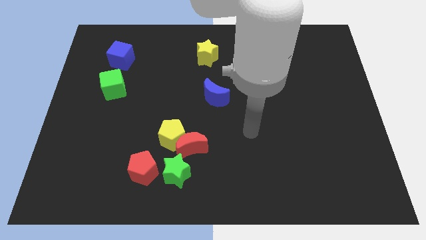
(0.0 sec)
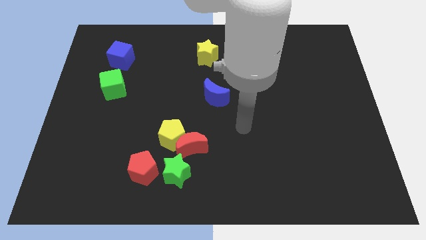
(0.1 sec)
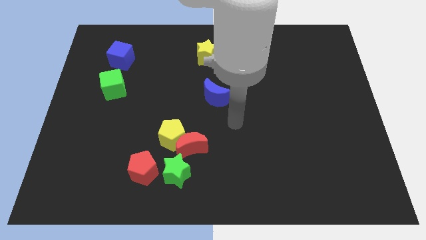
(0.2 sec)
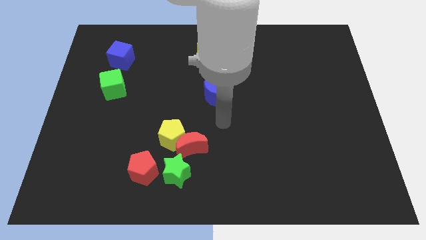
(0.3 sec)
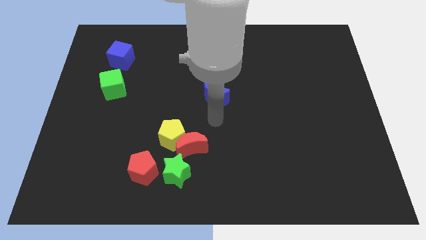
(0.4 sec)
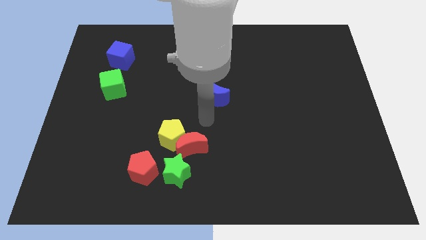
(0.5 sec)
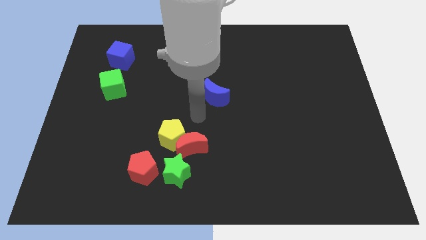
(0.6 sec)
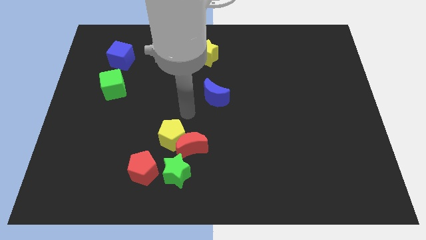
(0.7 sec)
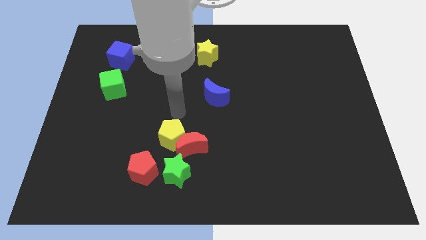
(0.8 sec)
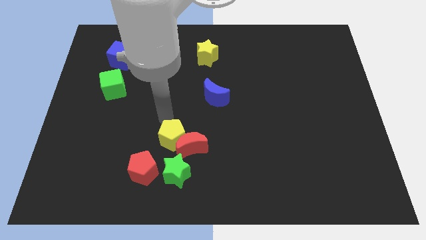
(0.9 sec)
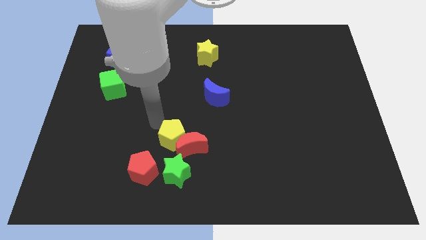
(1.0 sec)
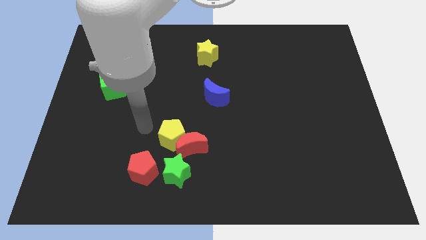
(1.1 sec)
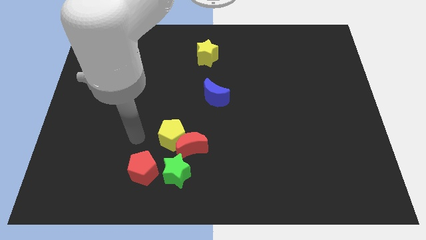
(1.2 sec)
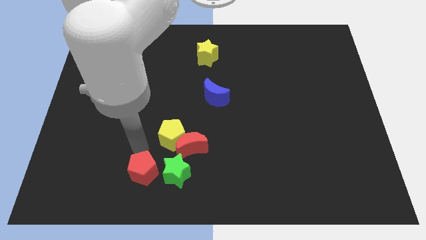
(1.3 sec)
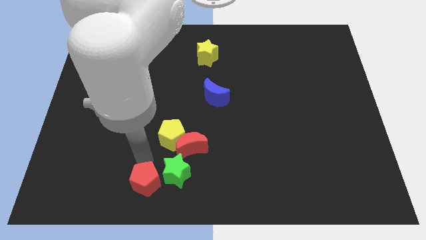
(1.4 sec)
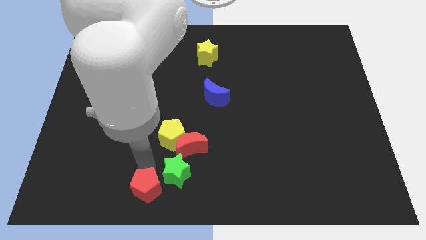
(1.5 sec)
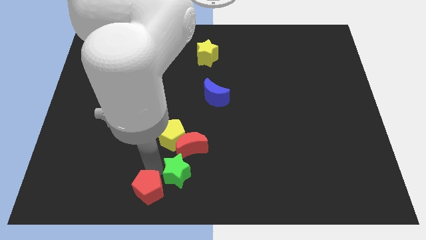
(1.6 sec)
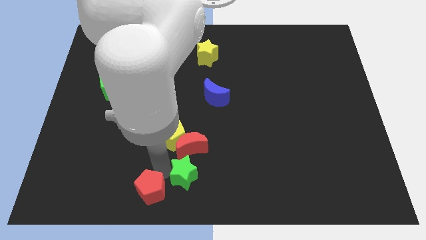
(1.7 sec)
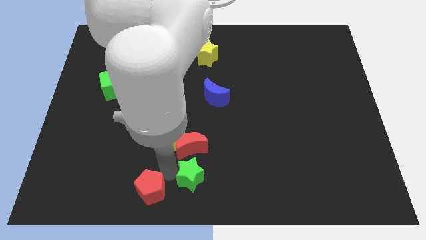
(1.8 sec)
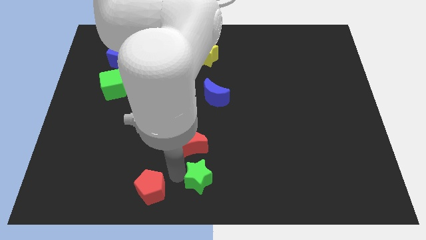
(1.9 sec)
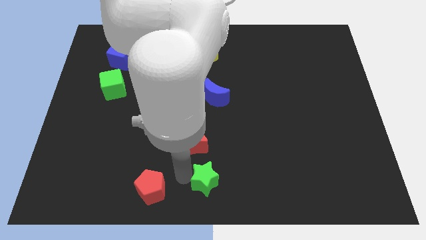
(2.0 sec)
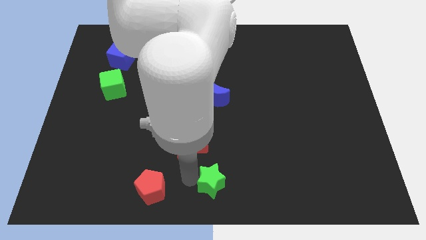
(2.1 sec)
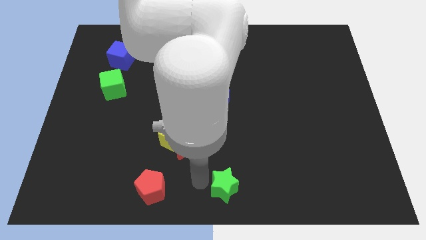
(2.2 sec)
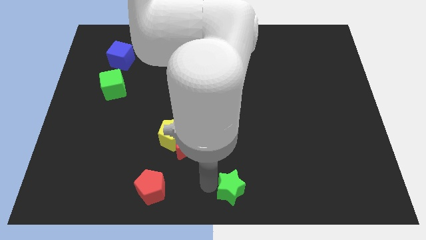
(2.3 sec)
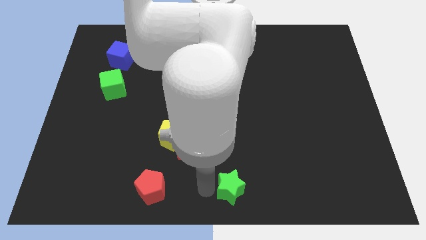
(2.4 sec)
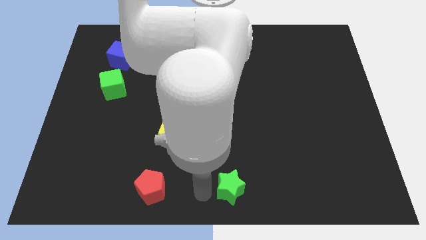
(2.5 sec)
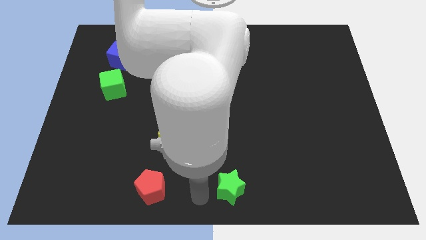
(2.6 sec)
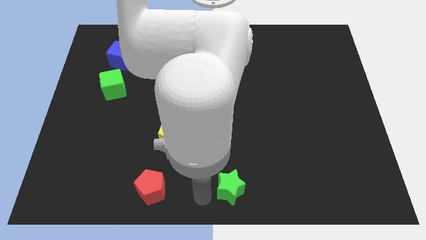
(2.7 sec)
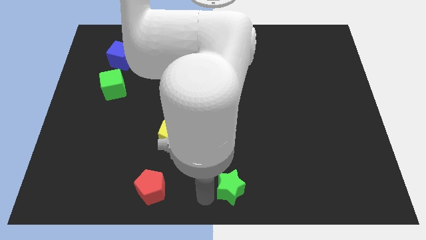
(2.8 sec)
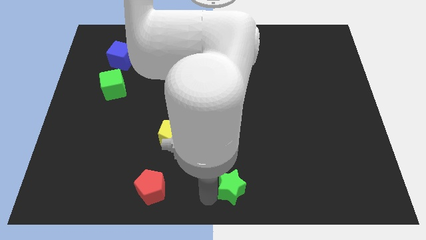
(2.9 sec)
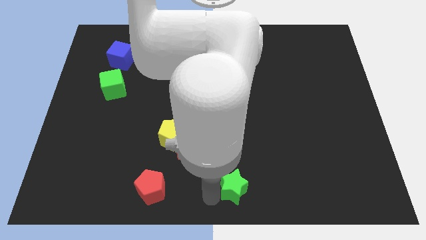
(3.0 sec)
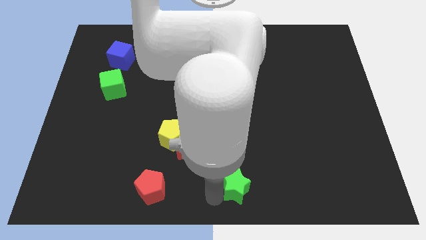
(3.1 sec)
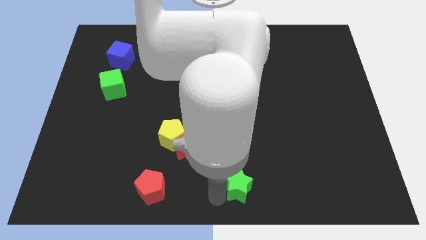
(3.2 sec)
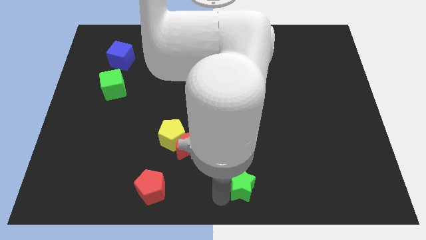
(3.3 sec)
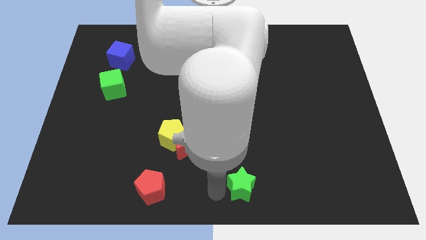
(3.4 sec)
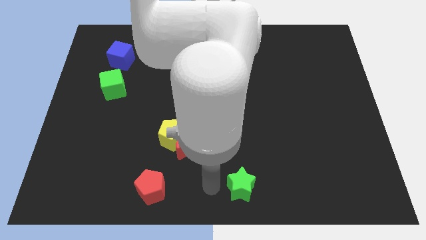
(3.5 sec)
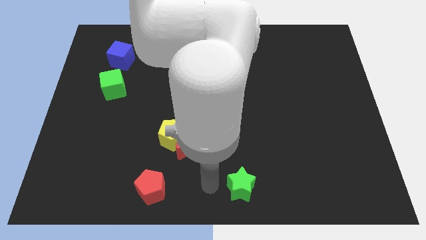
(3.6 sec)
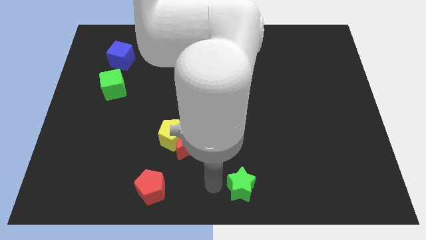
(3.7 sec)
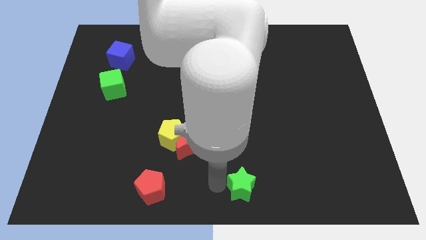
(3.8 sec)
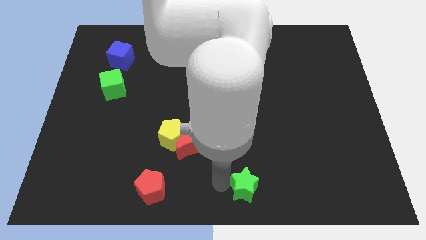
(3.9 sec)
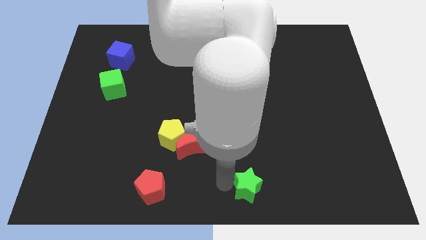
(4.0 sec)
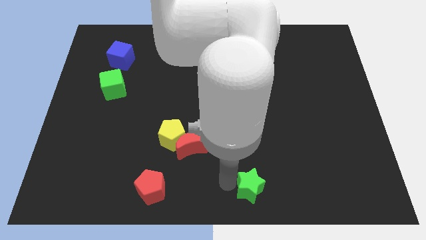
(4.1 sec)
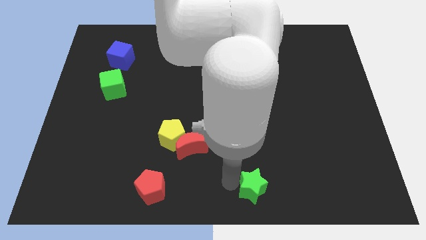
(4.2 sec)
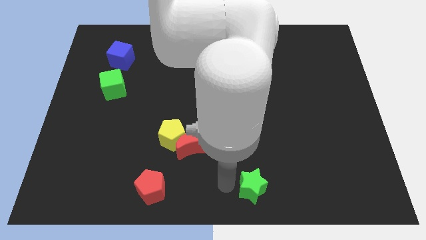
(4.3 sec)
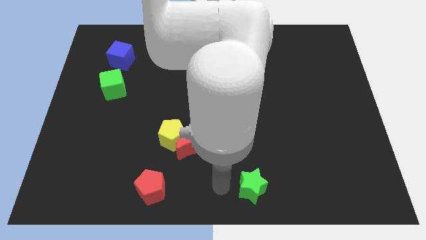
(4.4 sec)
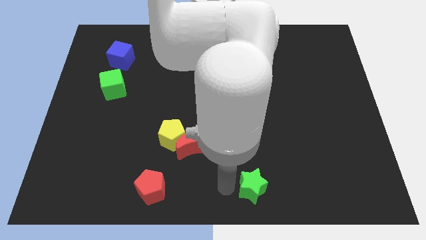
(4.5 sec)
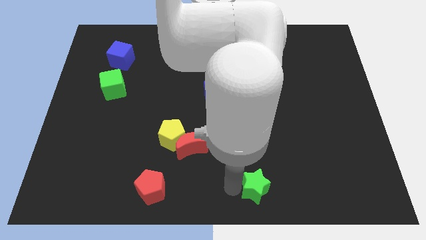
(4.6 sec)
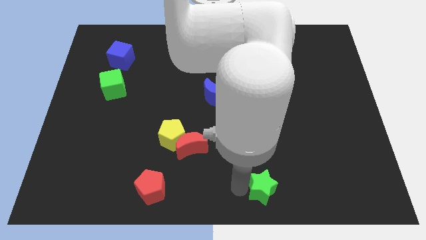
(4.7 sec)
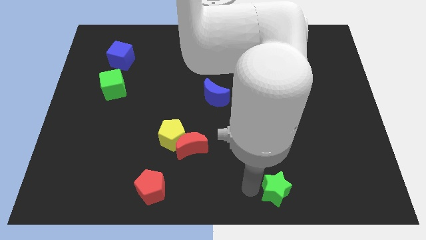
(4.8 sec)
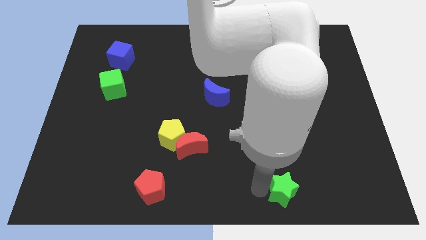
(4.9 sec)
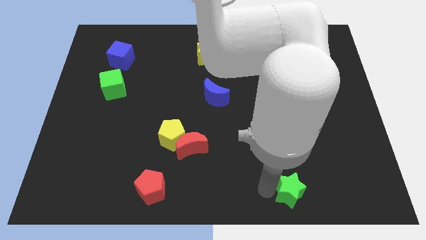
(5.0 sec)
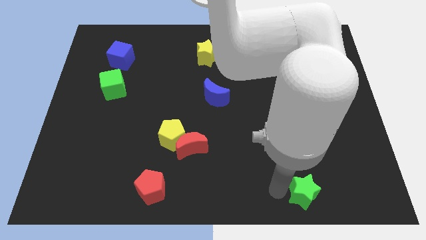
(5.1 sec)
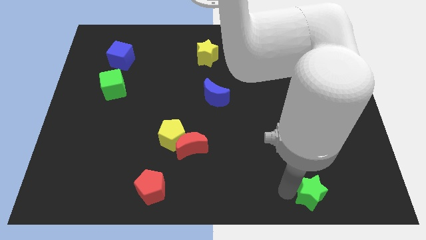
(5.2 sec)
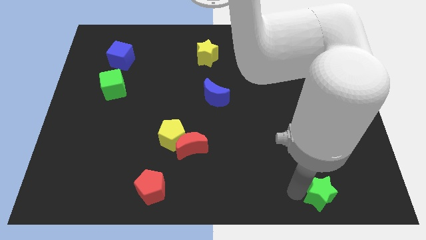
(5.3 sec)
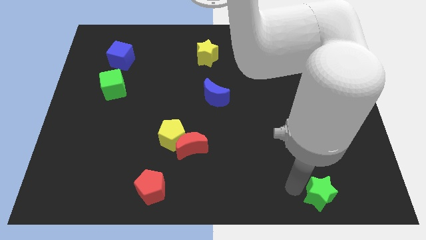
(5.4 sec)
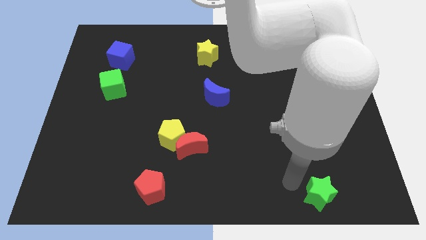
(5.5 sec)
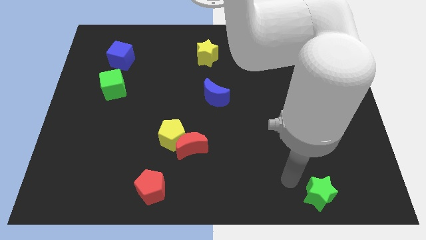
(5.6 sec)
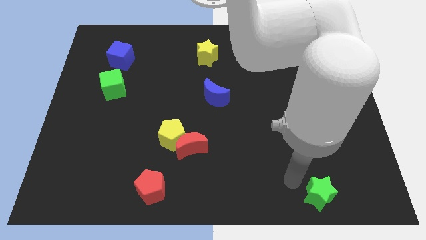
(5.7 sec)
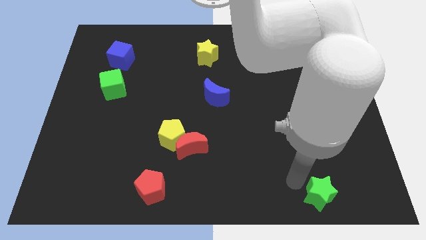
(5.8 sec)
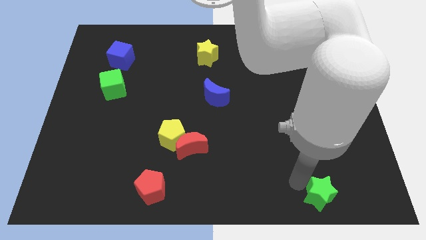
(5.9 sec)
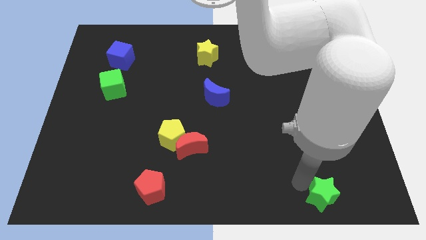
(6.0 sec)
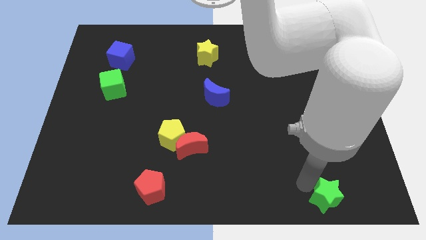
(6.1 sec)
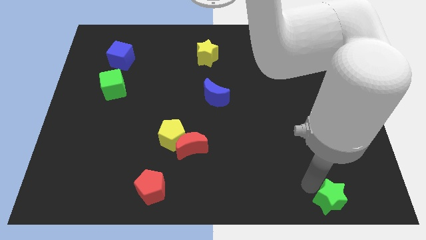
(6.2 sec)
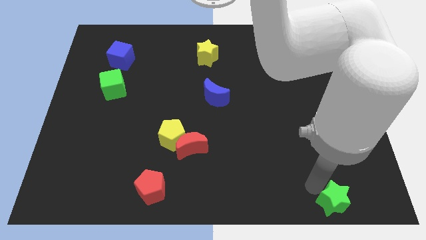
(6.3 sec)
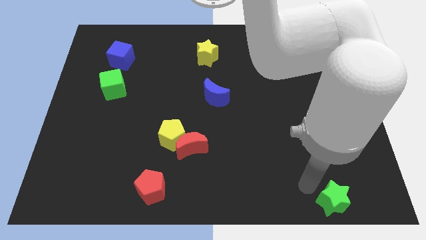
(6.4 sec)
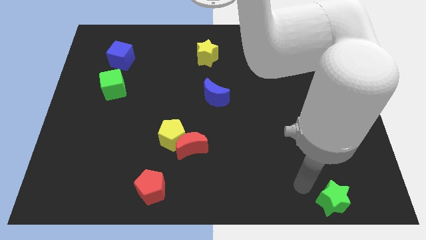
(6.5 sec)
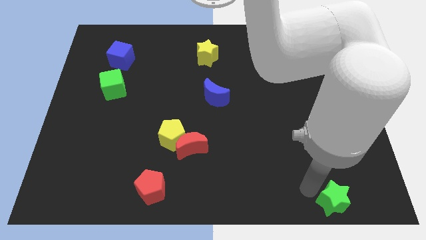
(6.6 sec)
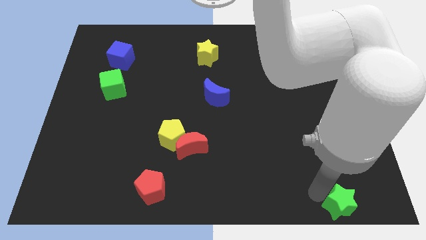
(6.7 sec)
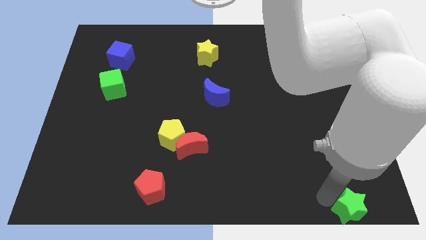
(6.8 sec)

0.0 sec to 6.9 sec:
push the green star to the bottom right corner

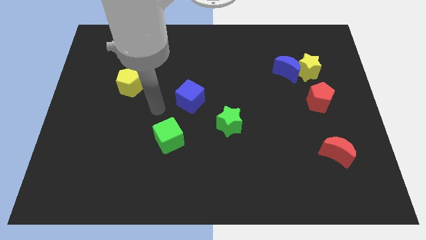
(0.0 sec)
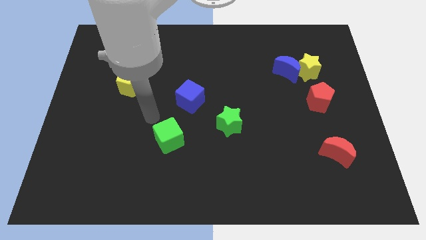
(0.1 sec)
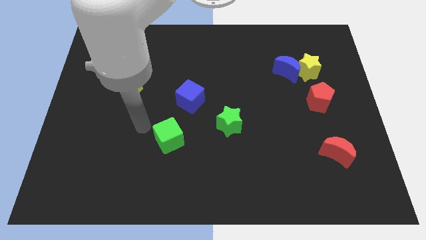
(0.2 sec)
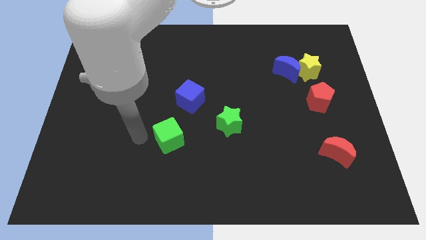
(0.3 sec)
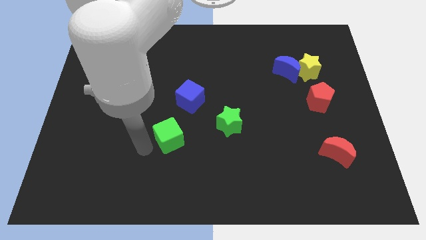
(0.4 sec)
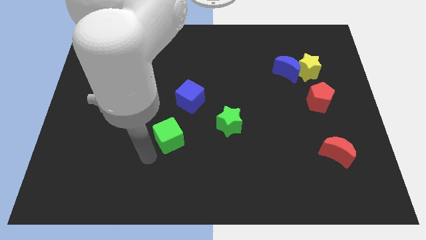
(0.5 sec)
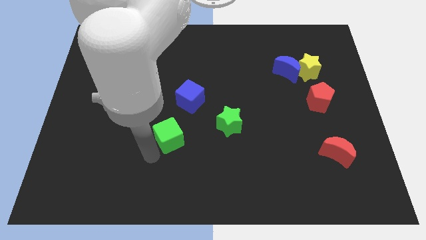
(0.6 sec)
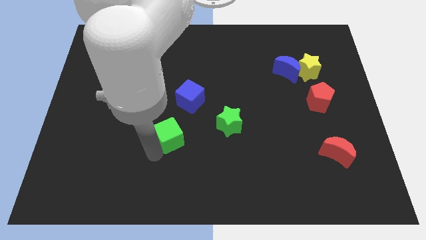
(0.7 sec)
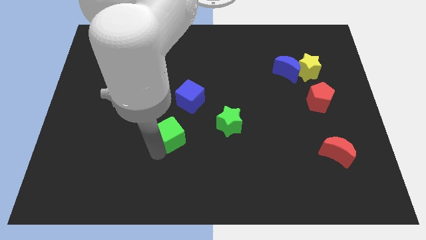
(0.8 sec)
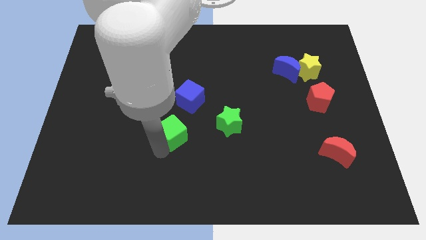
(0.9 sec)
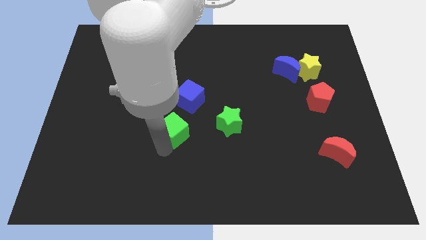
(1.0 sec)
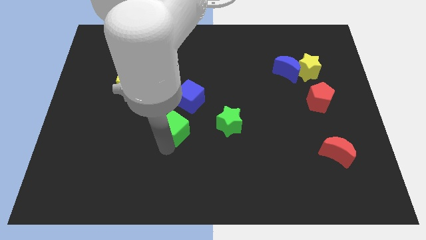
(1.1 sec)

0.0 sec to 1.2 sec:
put the green cube to the middle of the board
